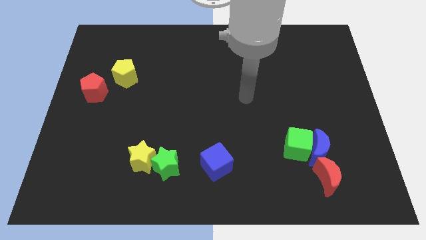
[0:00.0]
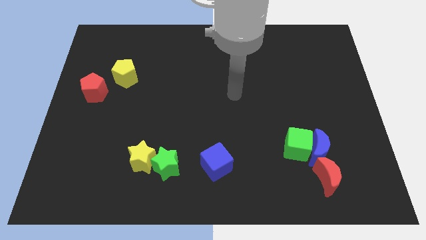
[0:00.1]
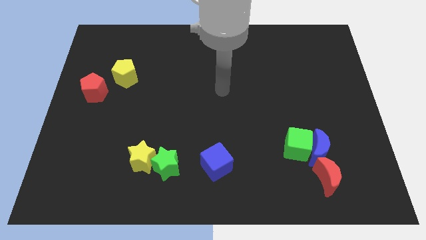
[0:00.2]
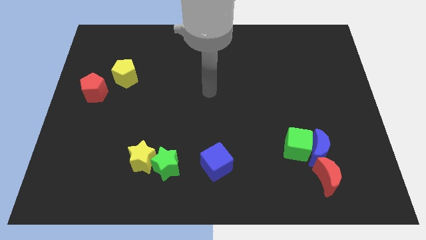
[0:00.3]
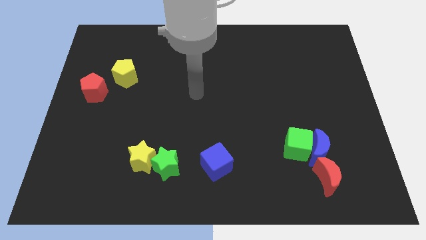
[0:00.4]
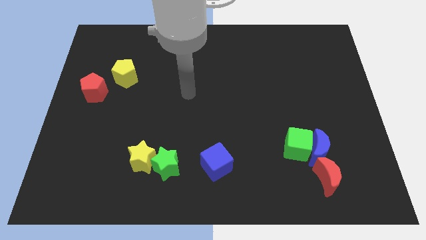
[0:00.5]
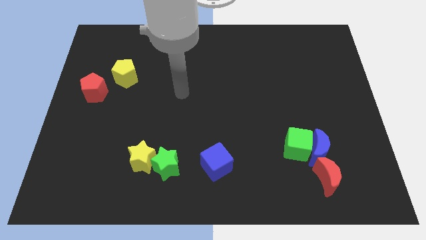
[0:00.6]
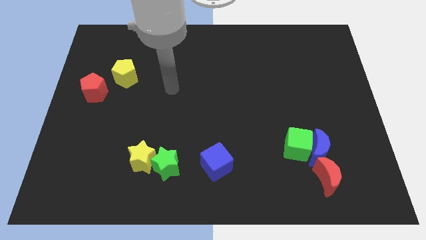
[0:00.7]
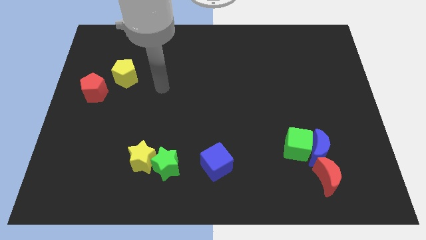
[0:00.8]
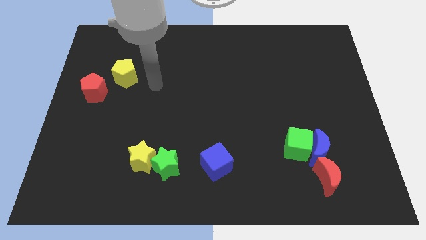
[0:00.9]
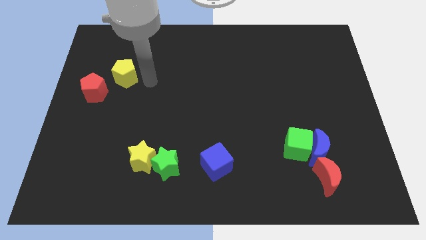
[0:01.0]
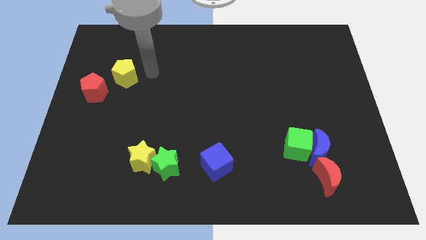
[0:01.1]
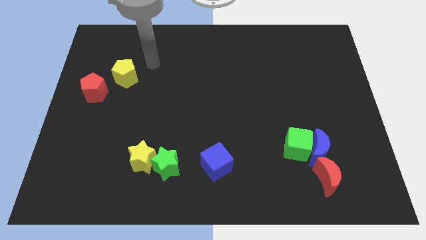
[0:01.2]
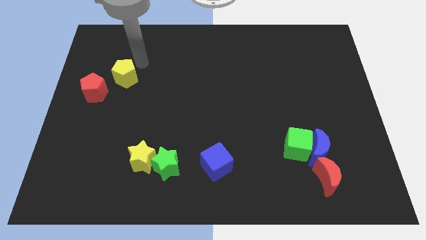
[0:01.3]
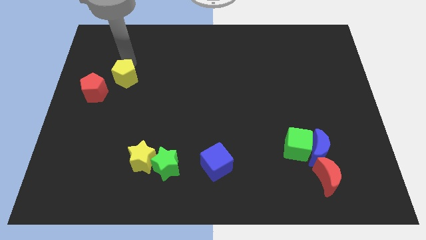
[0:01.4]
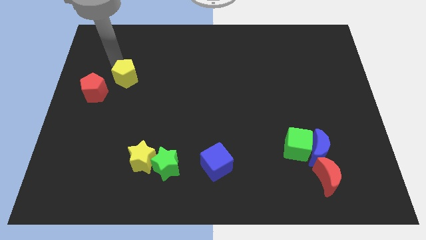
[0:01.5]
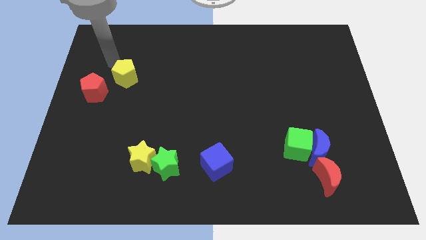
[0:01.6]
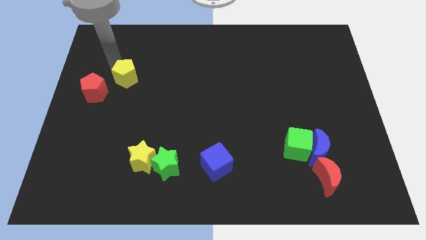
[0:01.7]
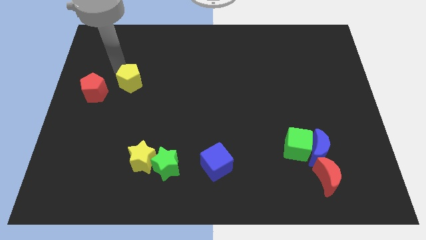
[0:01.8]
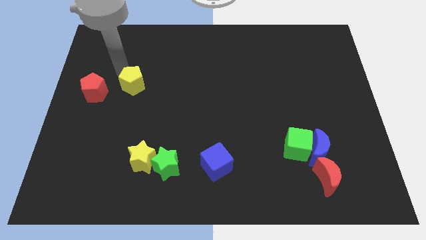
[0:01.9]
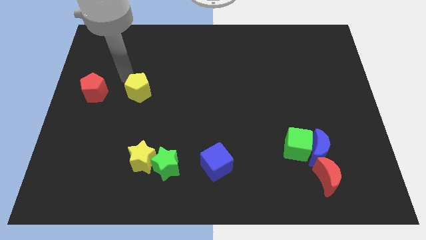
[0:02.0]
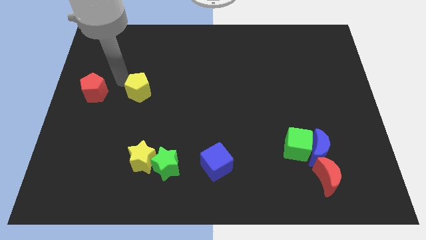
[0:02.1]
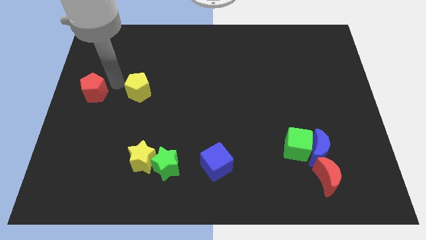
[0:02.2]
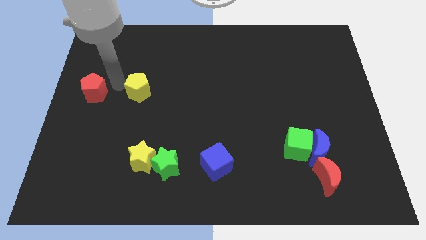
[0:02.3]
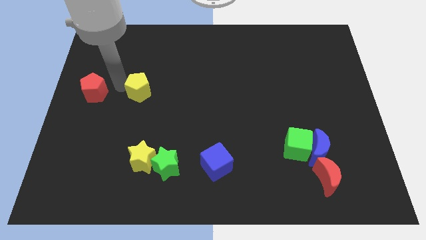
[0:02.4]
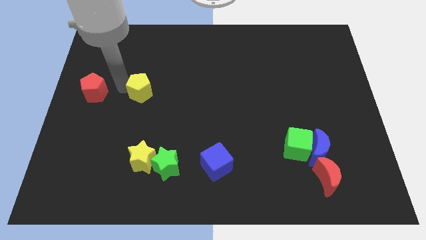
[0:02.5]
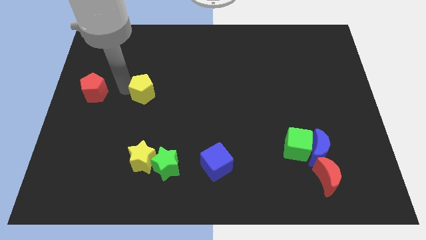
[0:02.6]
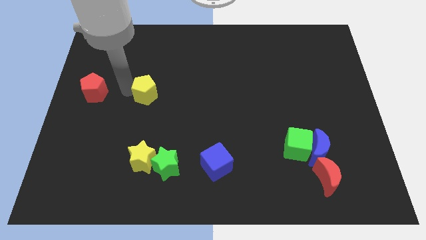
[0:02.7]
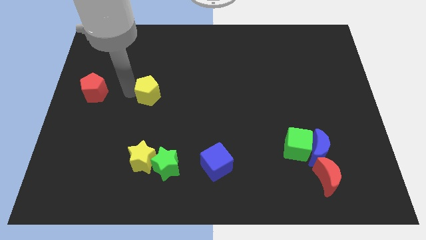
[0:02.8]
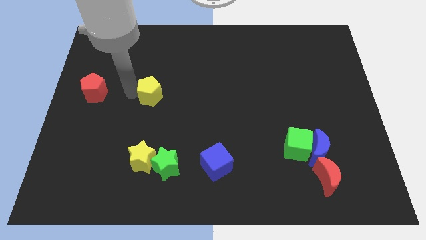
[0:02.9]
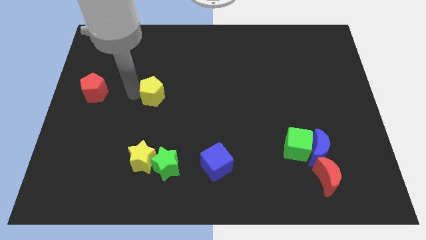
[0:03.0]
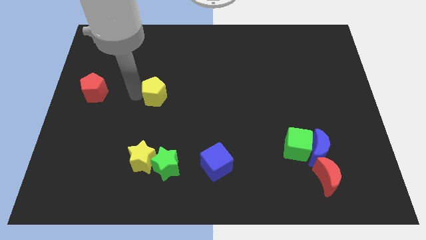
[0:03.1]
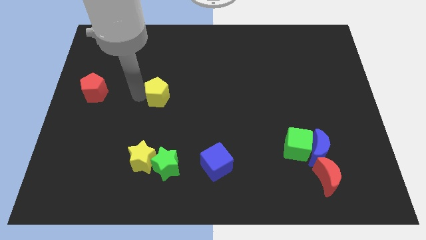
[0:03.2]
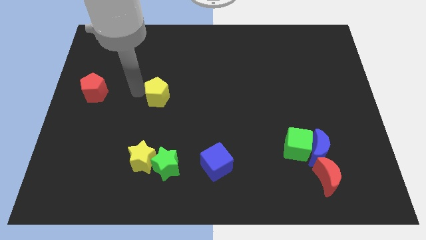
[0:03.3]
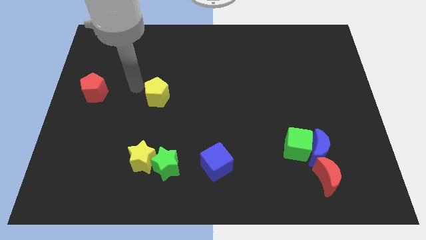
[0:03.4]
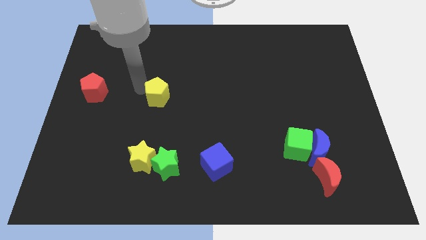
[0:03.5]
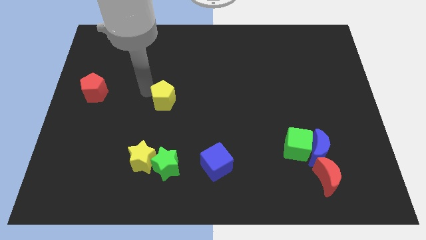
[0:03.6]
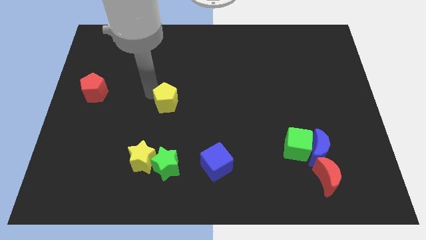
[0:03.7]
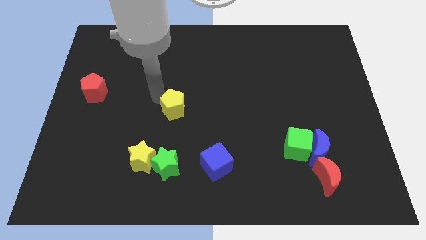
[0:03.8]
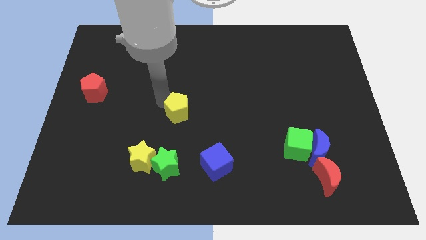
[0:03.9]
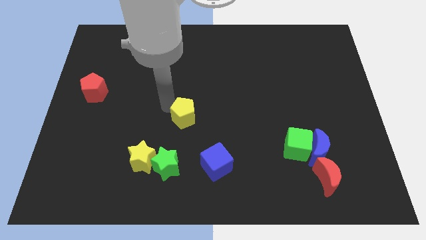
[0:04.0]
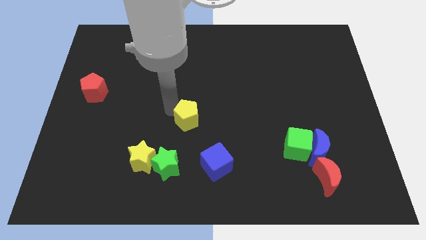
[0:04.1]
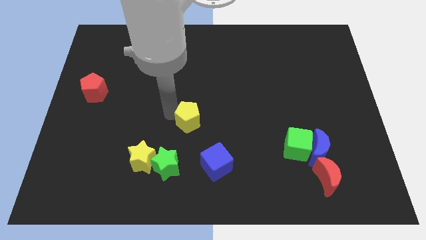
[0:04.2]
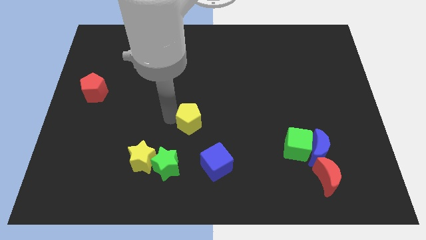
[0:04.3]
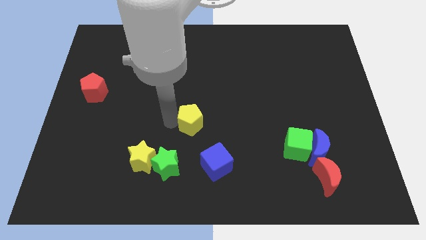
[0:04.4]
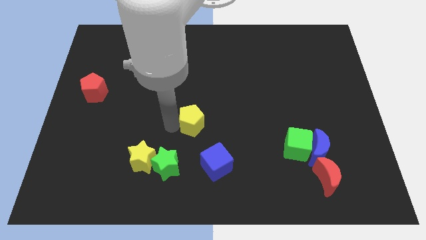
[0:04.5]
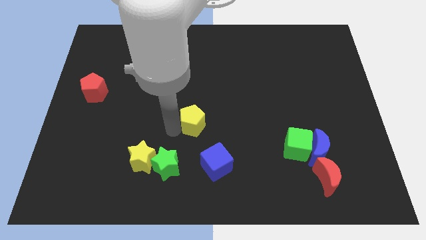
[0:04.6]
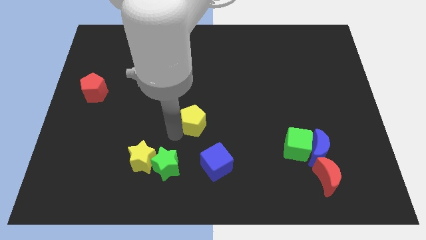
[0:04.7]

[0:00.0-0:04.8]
push the yellow pentagon to the top side of the blue cube

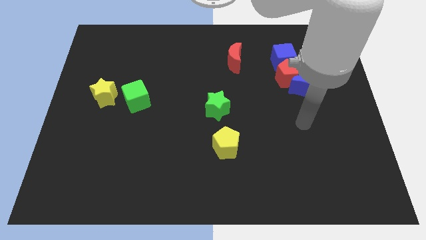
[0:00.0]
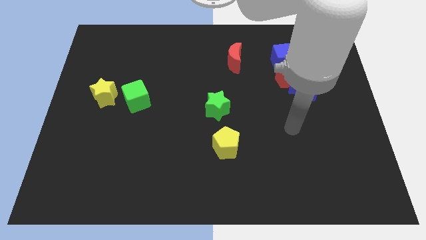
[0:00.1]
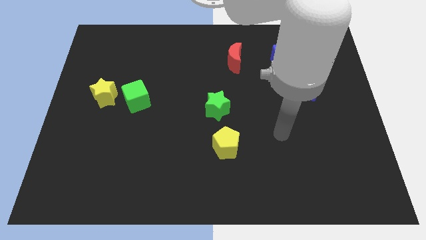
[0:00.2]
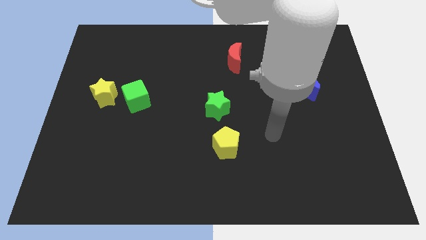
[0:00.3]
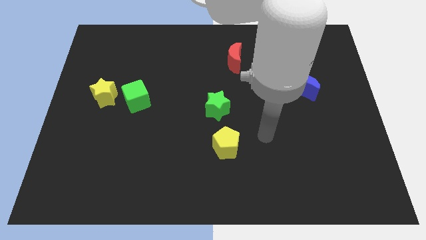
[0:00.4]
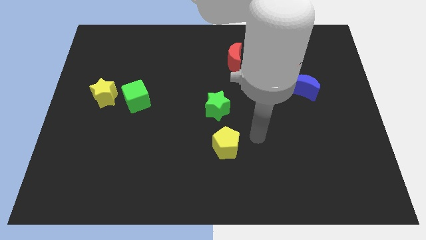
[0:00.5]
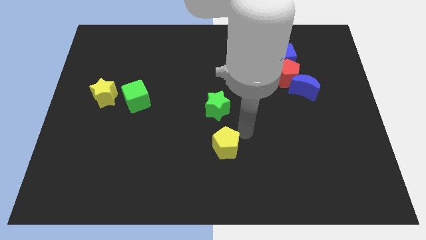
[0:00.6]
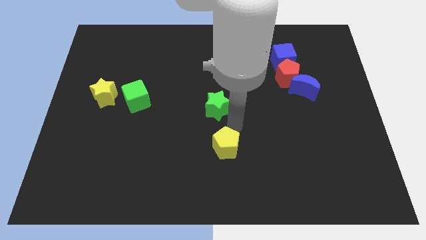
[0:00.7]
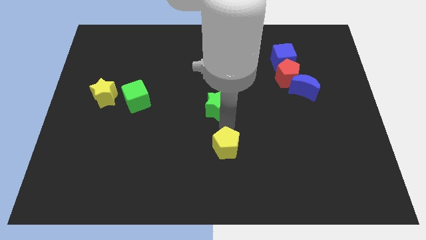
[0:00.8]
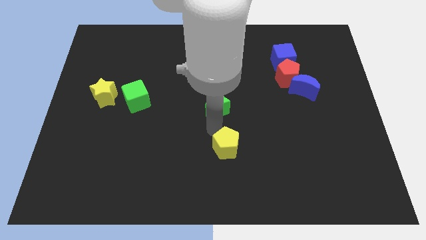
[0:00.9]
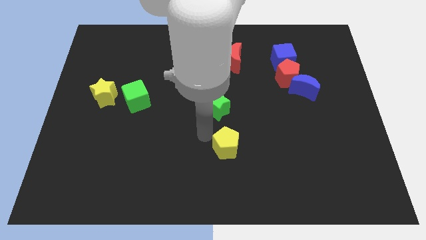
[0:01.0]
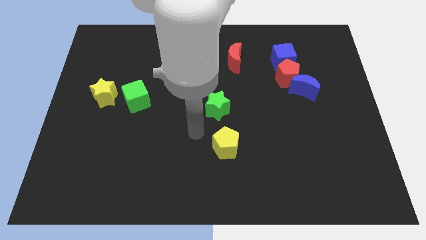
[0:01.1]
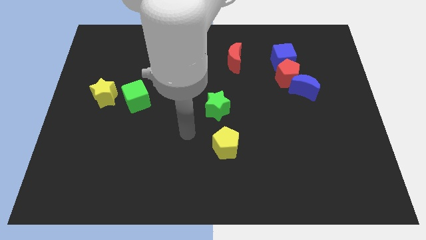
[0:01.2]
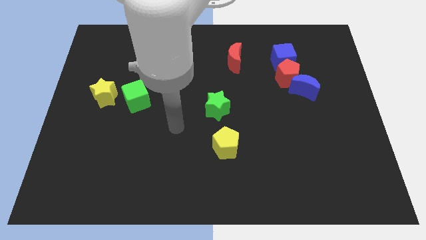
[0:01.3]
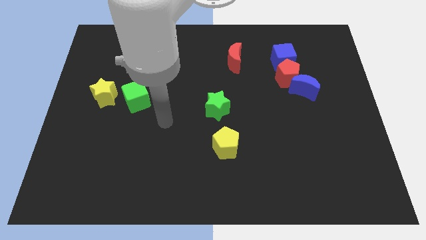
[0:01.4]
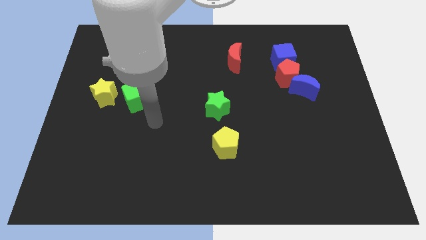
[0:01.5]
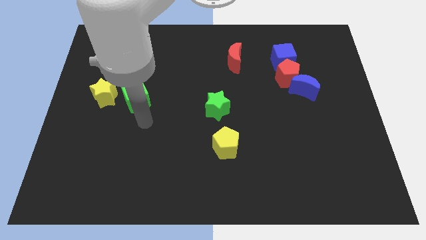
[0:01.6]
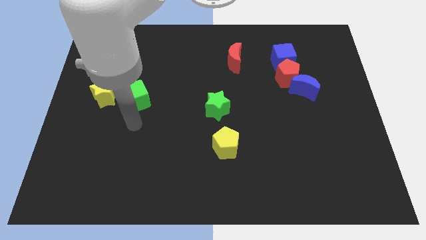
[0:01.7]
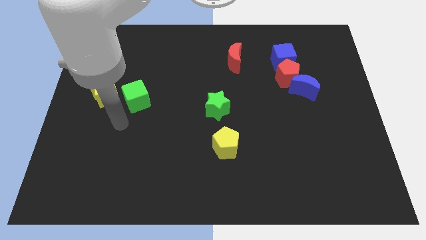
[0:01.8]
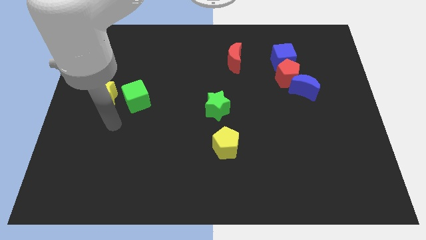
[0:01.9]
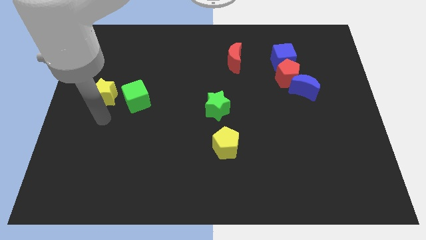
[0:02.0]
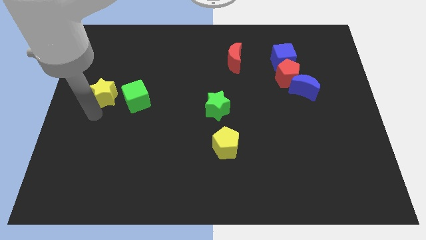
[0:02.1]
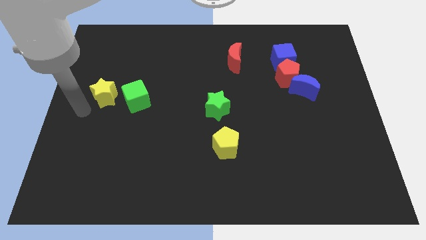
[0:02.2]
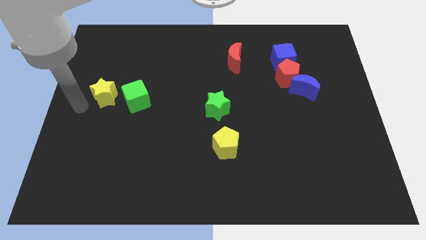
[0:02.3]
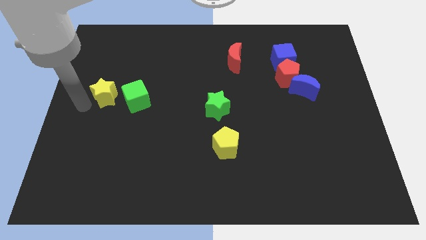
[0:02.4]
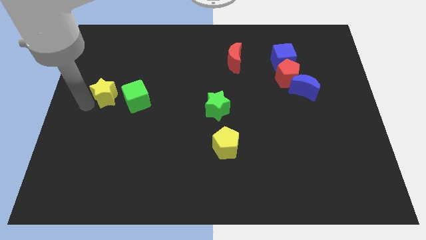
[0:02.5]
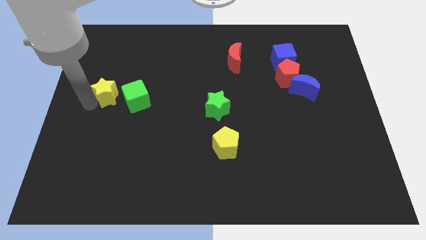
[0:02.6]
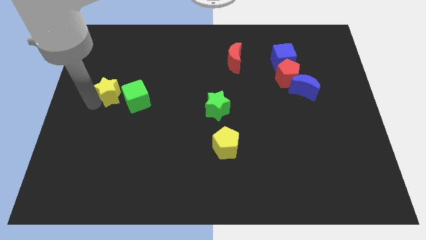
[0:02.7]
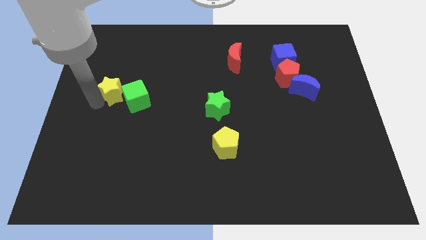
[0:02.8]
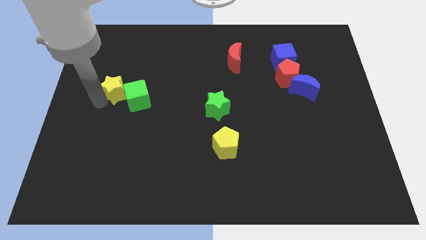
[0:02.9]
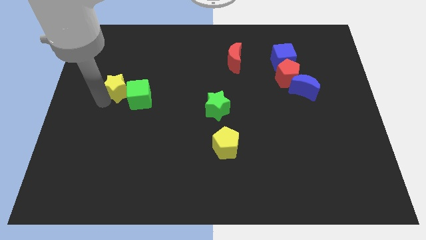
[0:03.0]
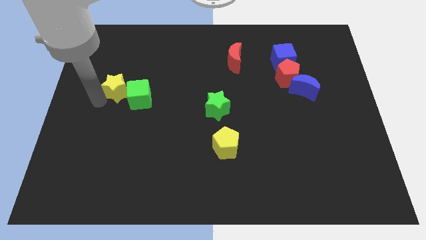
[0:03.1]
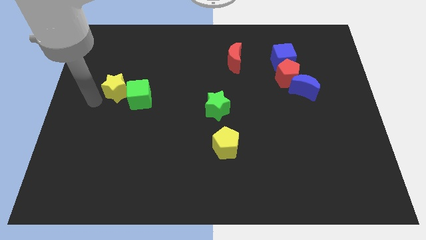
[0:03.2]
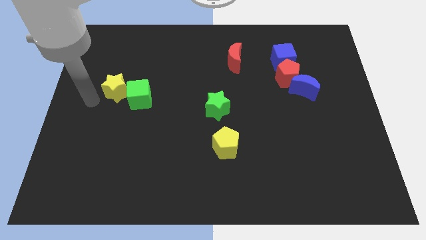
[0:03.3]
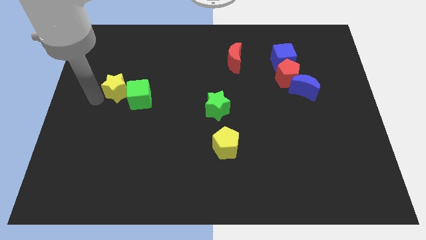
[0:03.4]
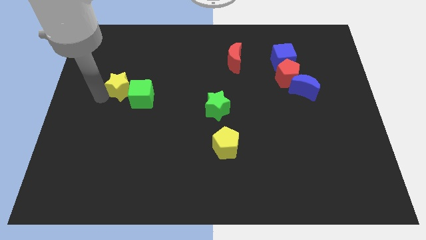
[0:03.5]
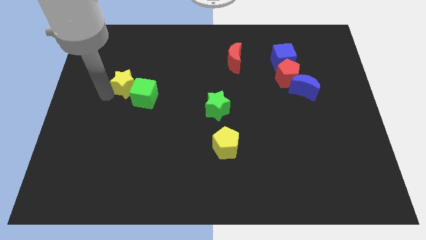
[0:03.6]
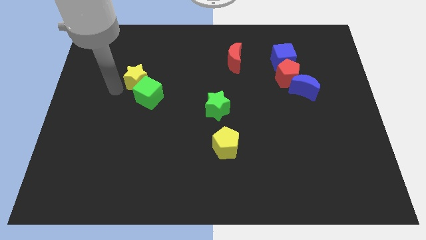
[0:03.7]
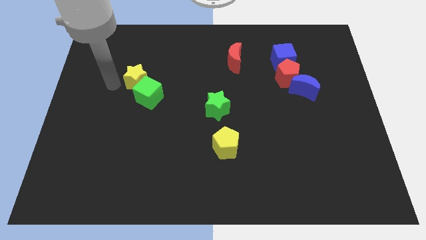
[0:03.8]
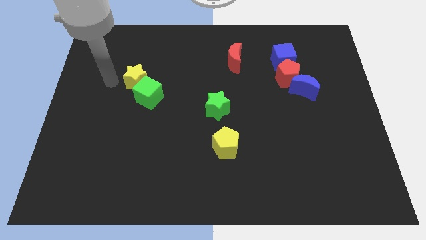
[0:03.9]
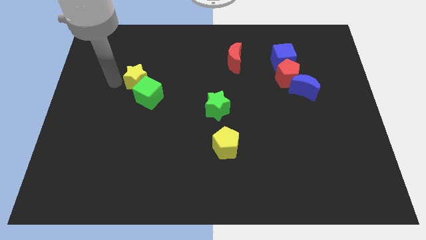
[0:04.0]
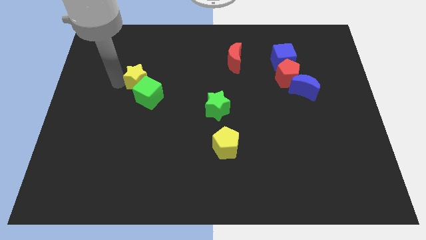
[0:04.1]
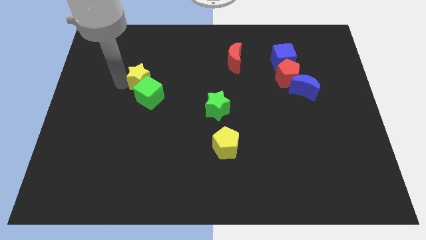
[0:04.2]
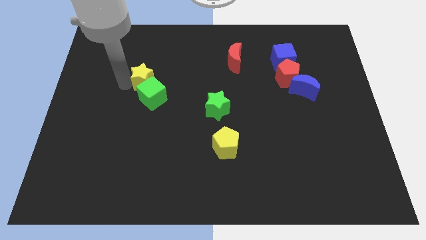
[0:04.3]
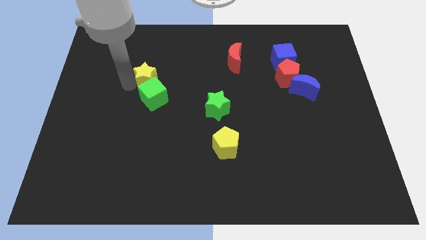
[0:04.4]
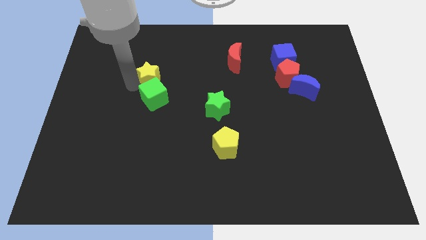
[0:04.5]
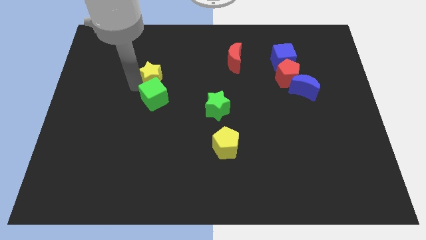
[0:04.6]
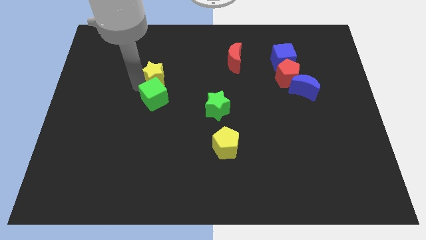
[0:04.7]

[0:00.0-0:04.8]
put the yellow star diagonally up and to the right of the green cube
